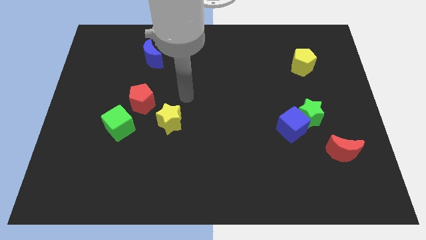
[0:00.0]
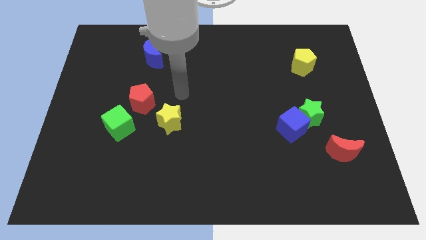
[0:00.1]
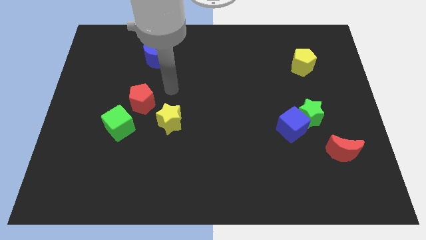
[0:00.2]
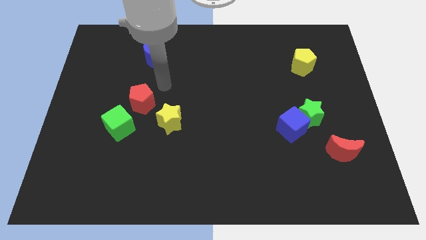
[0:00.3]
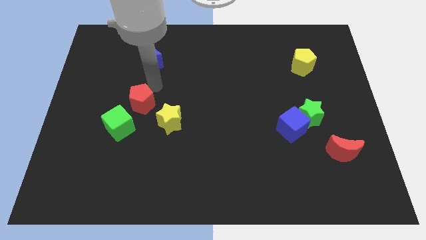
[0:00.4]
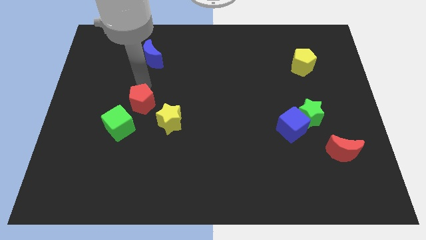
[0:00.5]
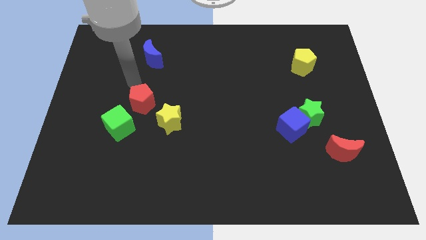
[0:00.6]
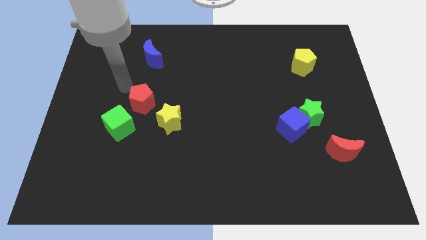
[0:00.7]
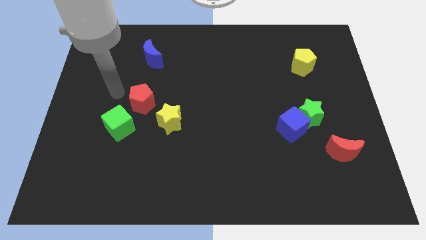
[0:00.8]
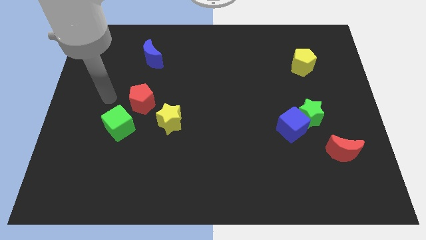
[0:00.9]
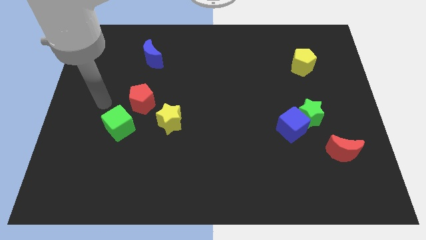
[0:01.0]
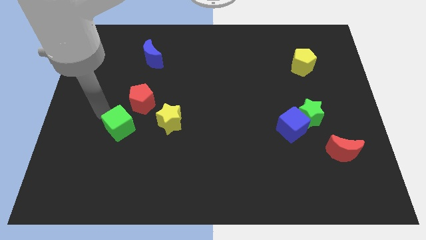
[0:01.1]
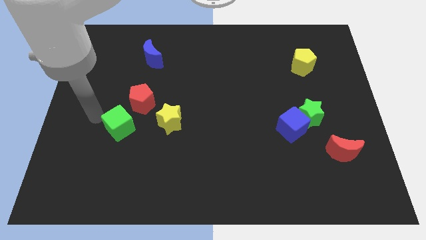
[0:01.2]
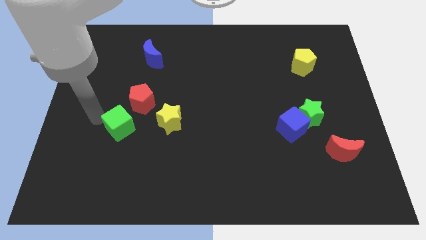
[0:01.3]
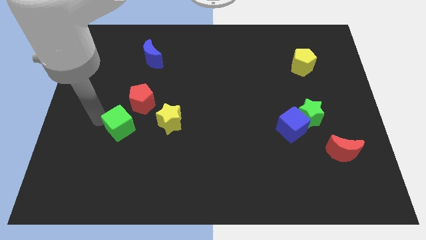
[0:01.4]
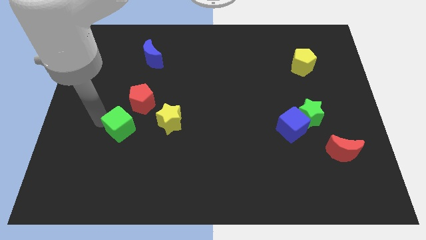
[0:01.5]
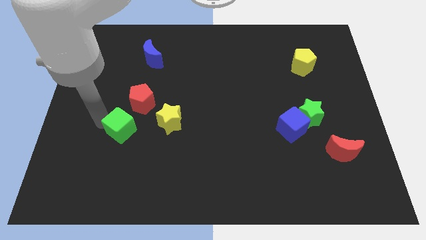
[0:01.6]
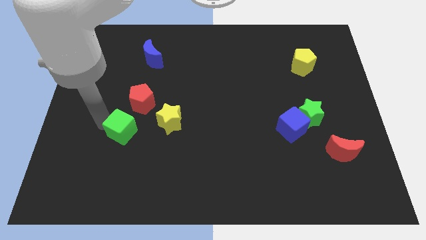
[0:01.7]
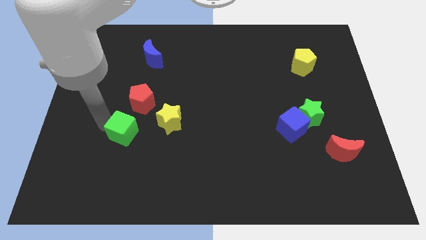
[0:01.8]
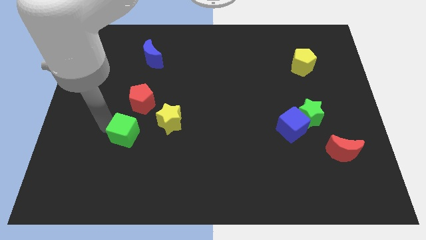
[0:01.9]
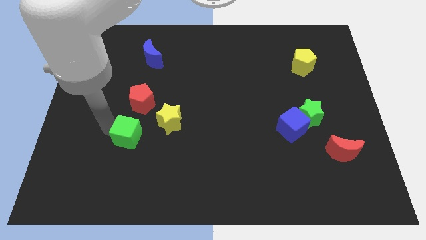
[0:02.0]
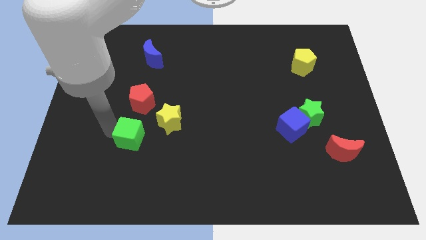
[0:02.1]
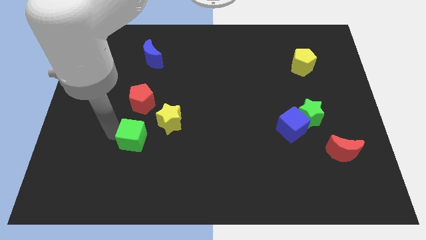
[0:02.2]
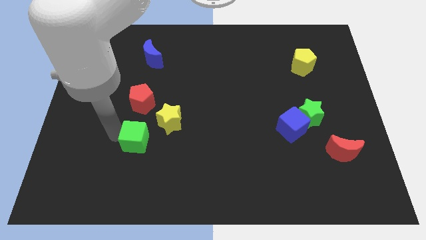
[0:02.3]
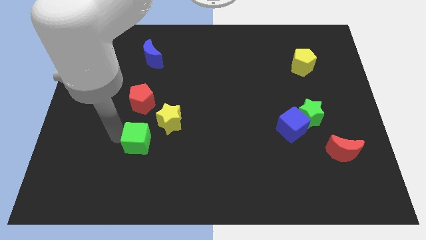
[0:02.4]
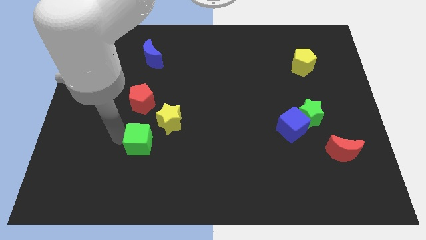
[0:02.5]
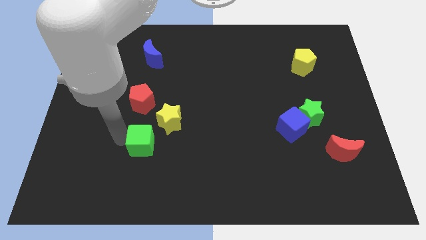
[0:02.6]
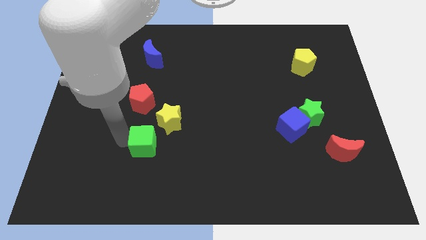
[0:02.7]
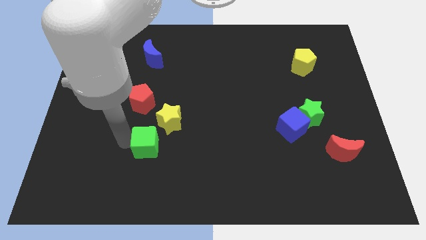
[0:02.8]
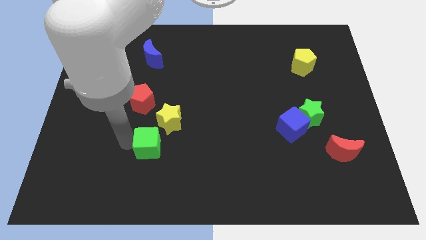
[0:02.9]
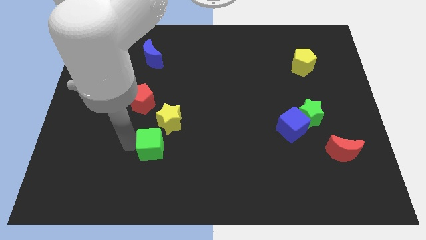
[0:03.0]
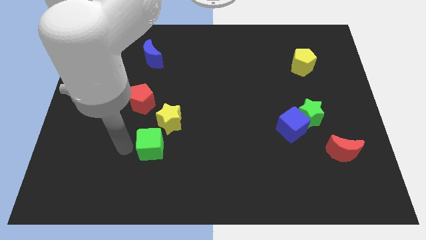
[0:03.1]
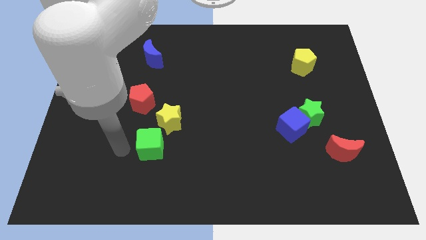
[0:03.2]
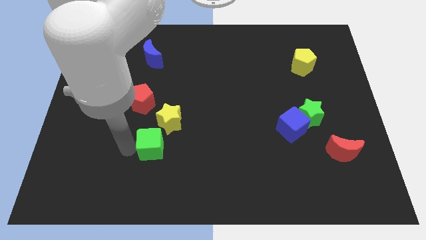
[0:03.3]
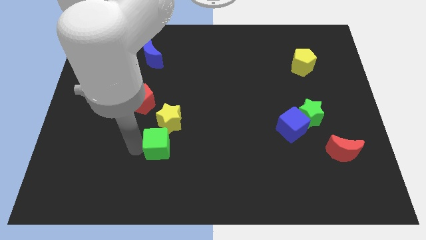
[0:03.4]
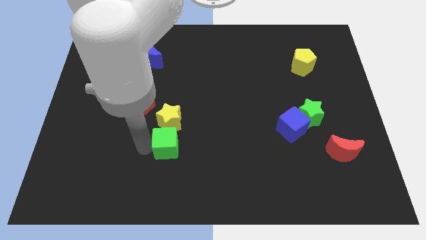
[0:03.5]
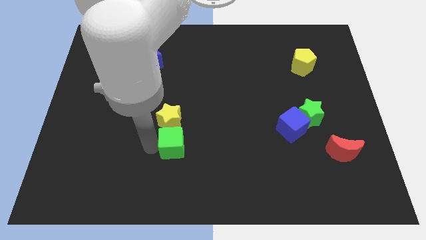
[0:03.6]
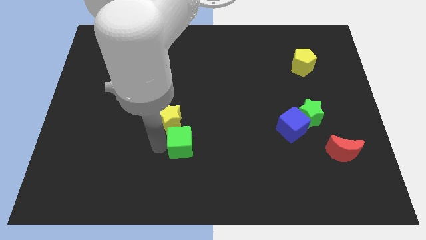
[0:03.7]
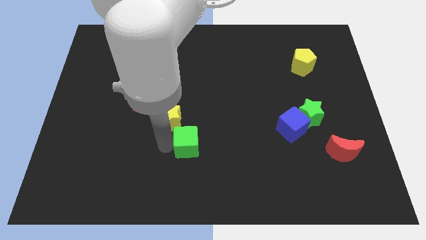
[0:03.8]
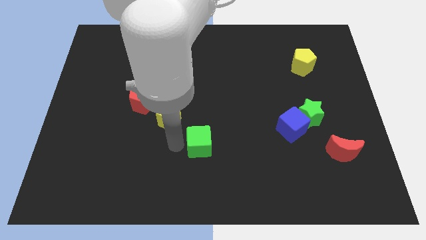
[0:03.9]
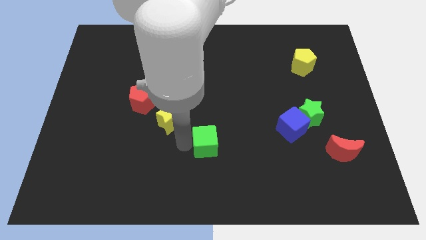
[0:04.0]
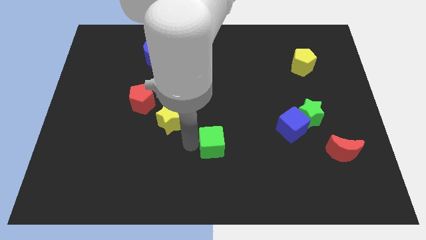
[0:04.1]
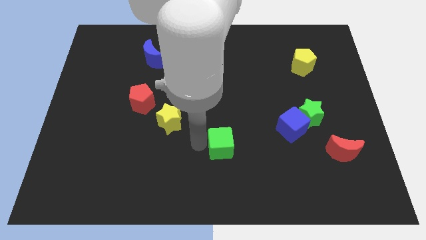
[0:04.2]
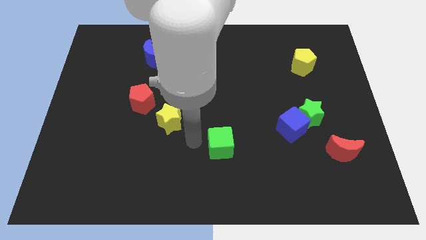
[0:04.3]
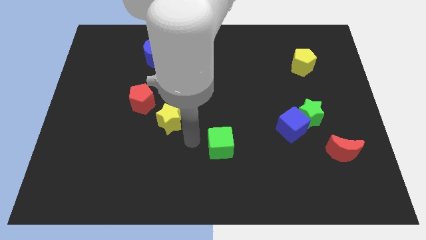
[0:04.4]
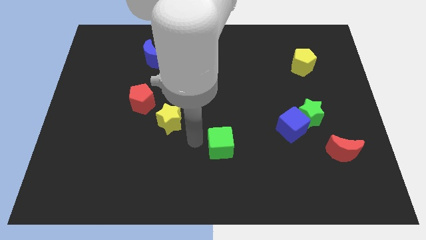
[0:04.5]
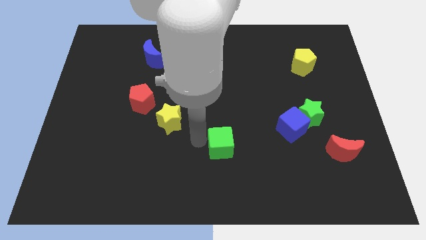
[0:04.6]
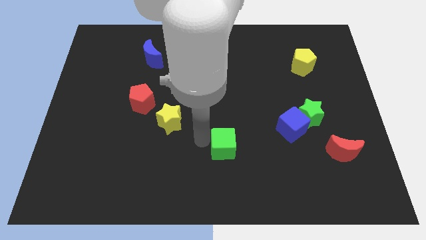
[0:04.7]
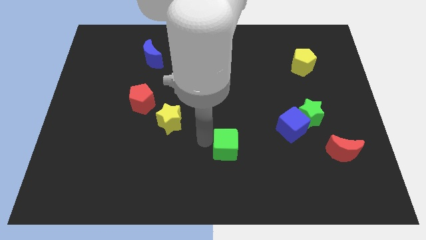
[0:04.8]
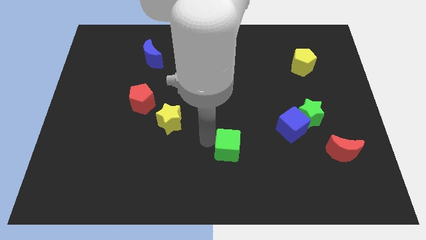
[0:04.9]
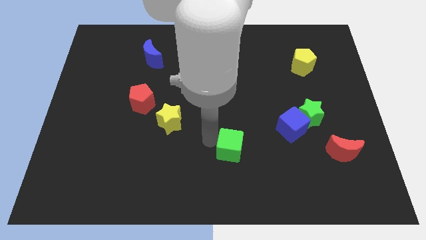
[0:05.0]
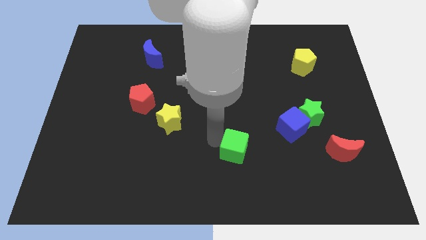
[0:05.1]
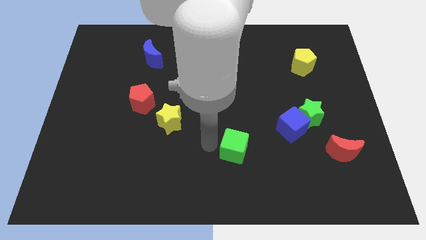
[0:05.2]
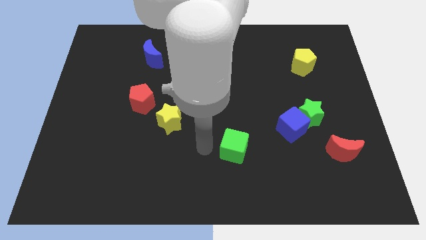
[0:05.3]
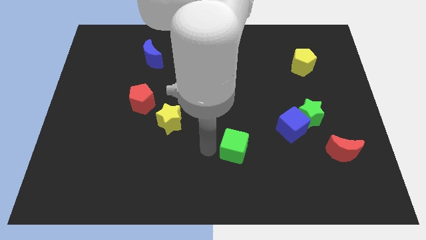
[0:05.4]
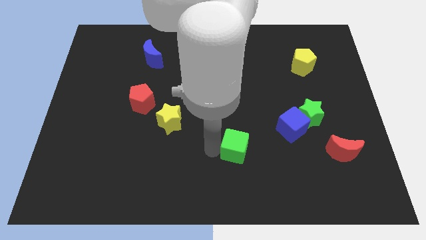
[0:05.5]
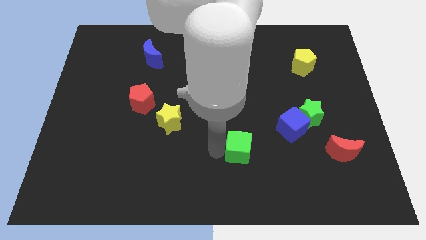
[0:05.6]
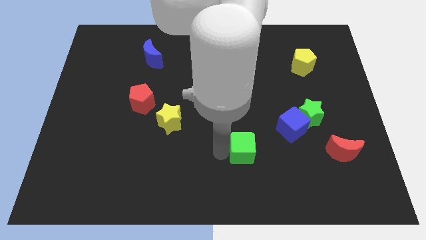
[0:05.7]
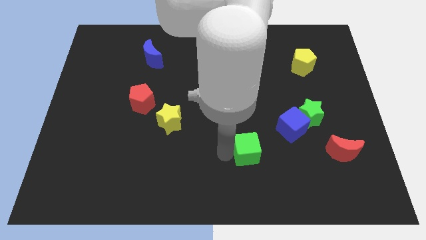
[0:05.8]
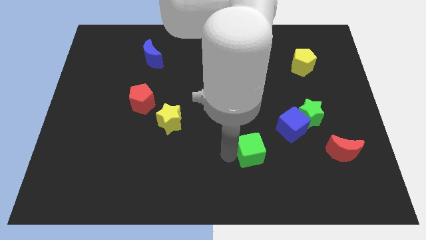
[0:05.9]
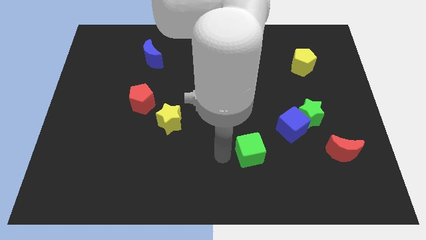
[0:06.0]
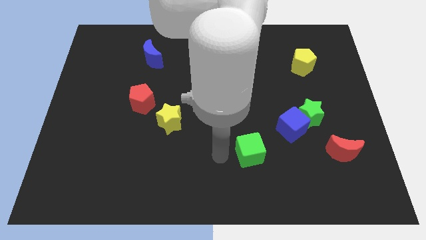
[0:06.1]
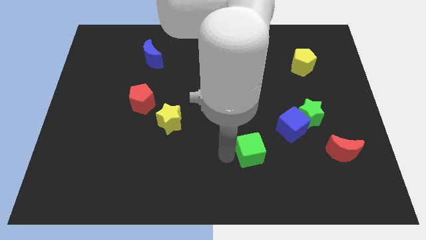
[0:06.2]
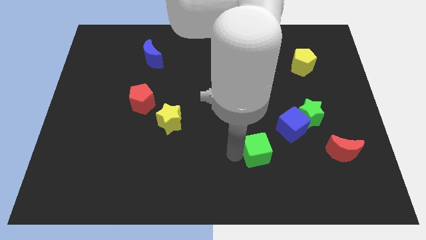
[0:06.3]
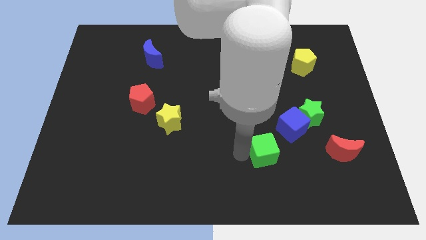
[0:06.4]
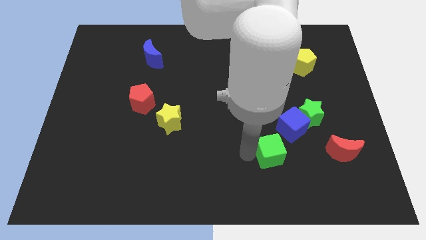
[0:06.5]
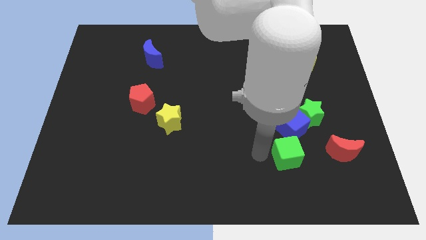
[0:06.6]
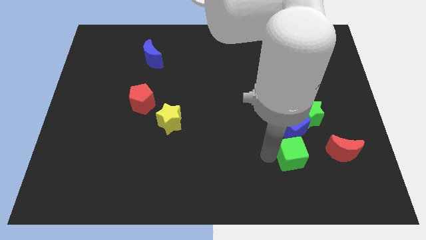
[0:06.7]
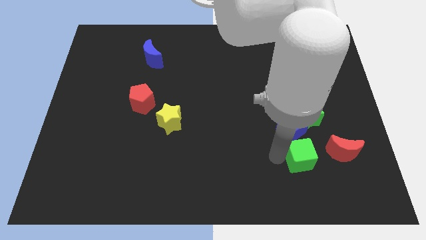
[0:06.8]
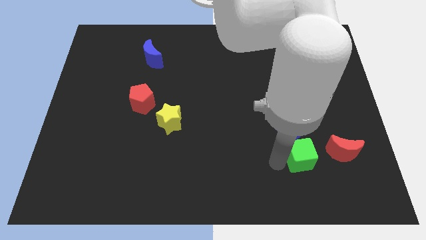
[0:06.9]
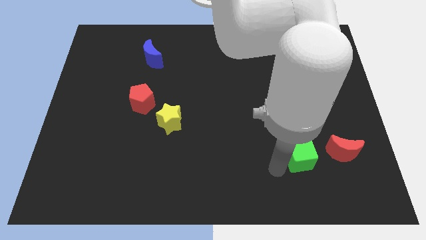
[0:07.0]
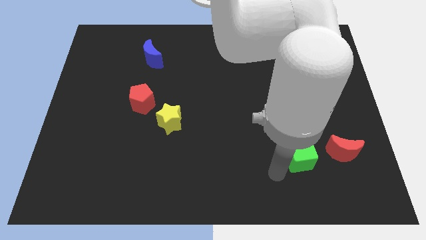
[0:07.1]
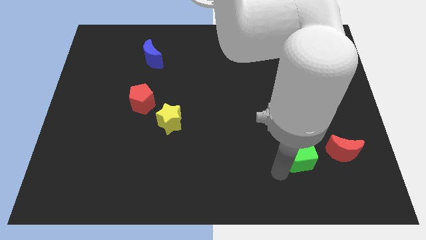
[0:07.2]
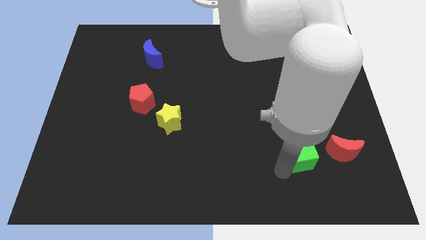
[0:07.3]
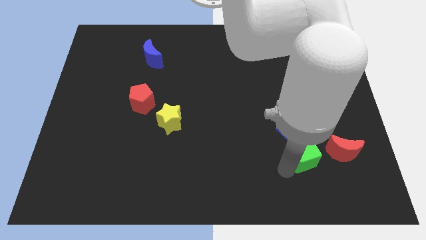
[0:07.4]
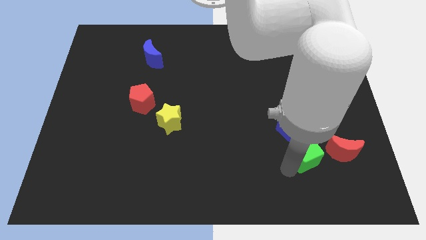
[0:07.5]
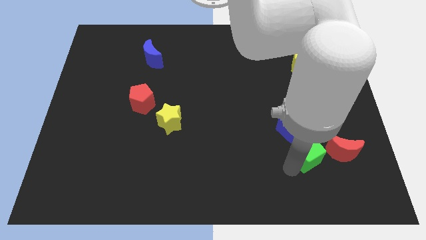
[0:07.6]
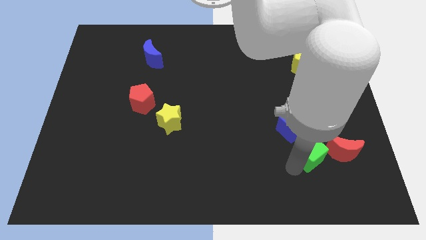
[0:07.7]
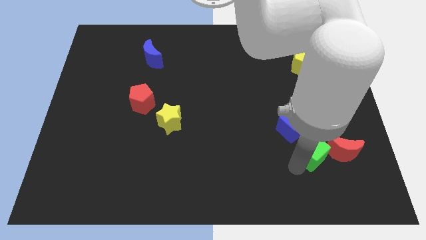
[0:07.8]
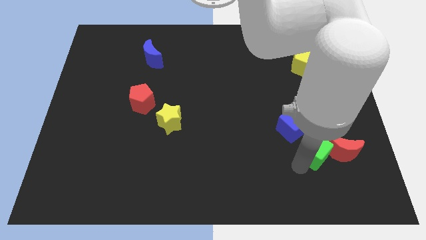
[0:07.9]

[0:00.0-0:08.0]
put the green cube towards the red moon
